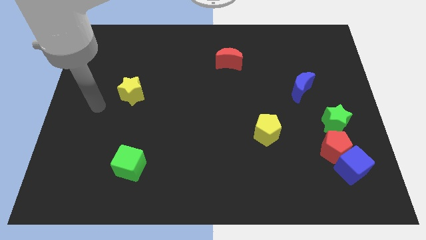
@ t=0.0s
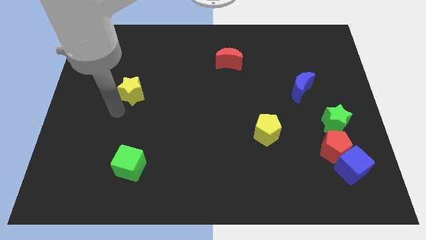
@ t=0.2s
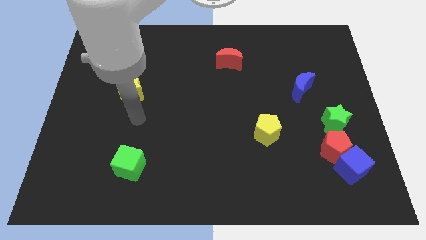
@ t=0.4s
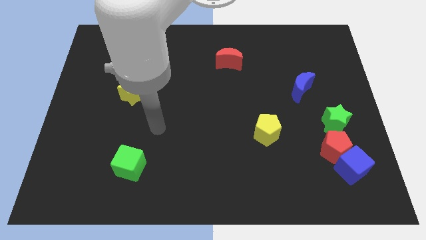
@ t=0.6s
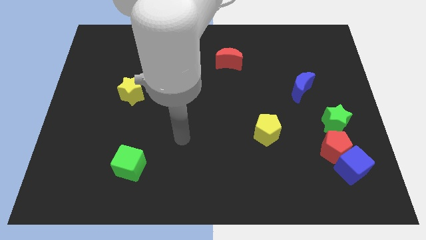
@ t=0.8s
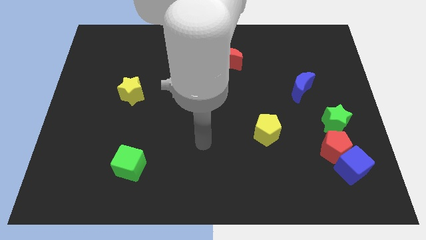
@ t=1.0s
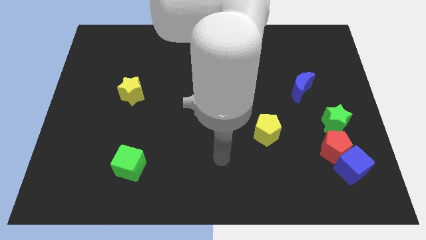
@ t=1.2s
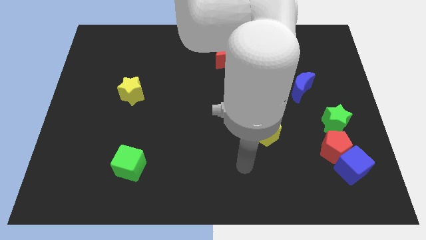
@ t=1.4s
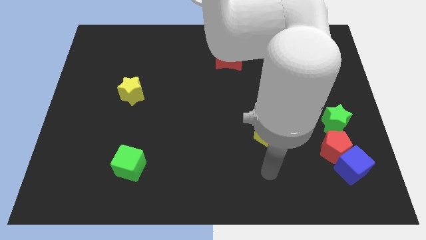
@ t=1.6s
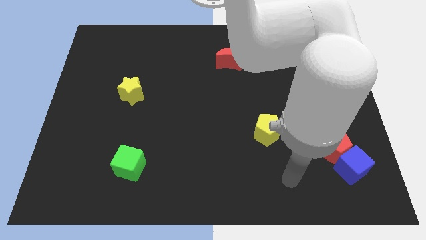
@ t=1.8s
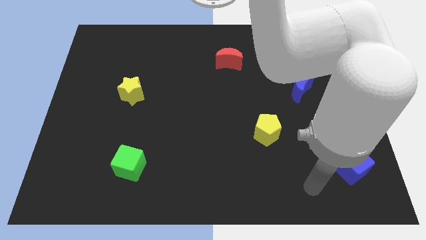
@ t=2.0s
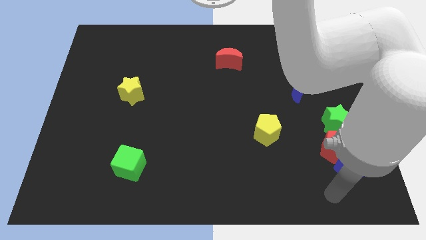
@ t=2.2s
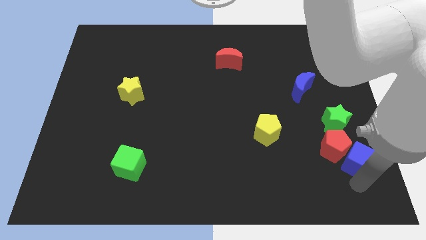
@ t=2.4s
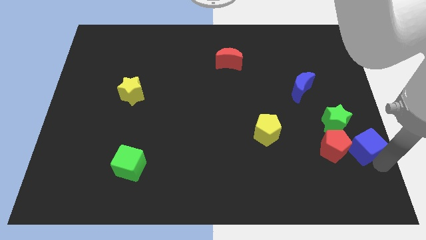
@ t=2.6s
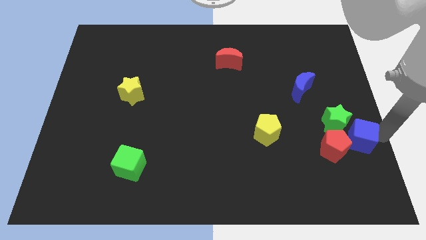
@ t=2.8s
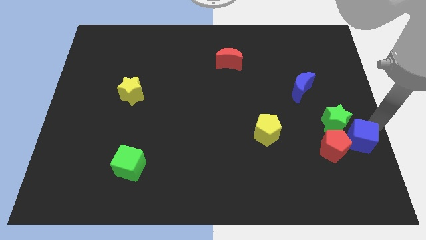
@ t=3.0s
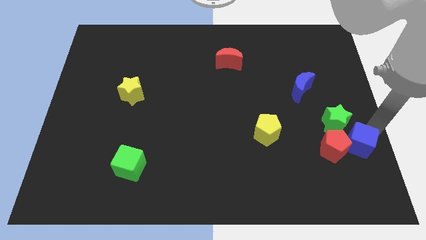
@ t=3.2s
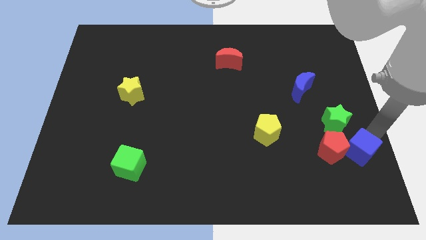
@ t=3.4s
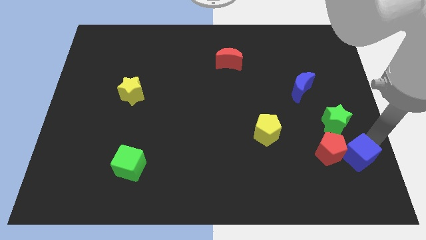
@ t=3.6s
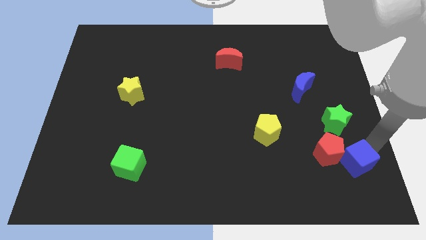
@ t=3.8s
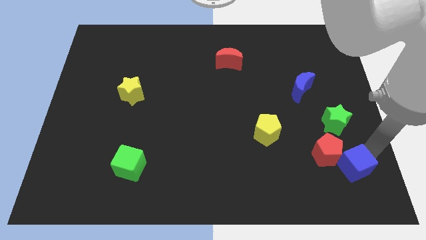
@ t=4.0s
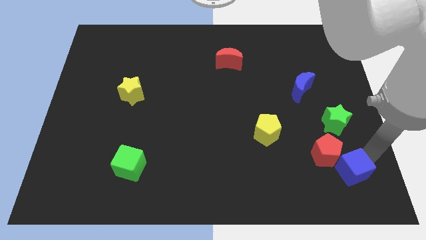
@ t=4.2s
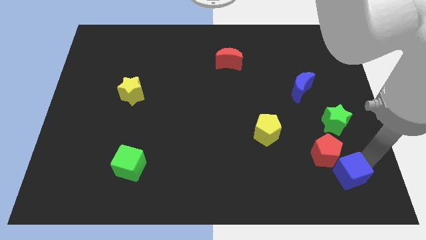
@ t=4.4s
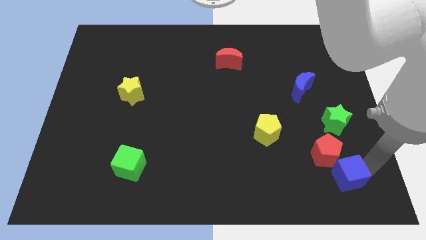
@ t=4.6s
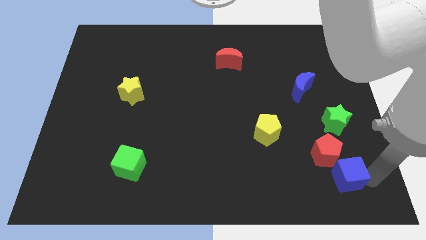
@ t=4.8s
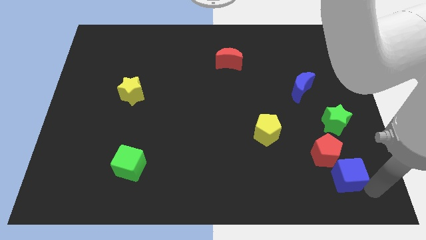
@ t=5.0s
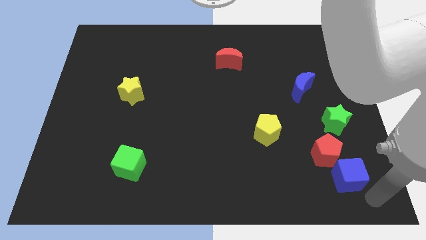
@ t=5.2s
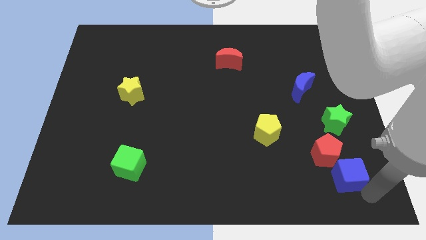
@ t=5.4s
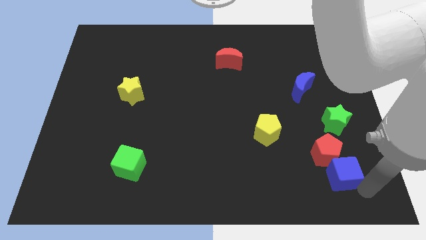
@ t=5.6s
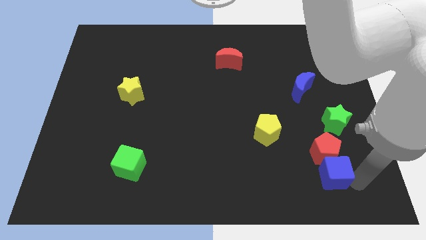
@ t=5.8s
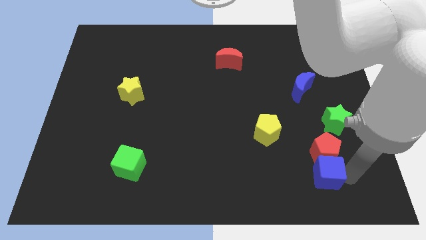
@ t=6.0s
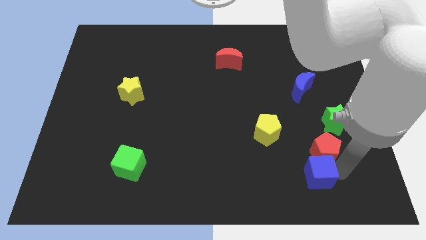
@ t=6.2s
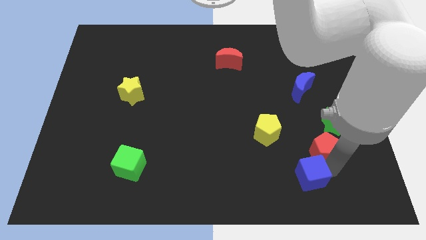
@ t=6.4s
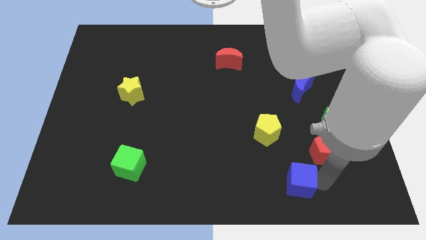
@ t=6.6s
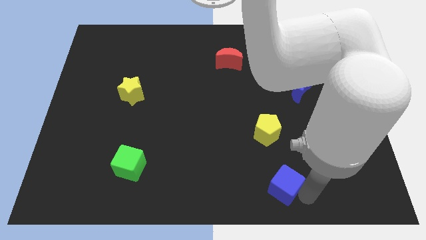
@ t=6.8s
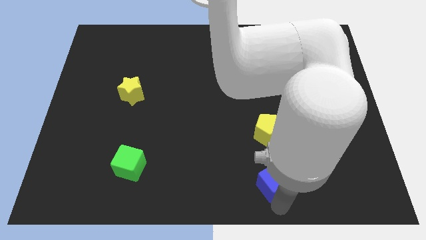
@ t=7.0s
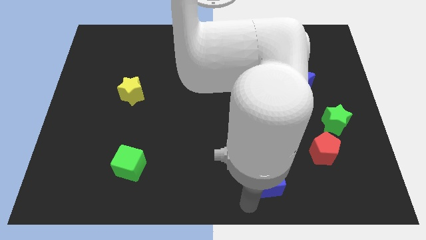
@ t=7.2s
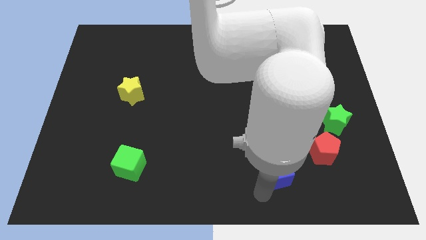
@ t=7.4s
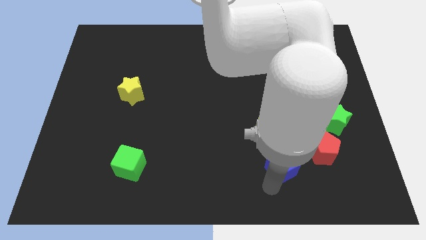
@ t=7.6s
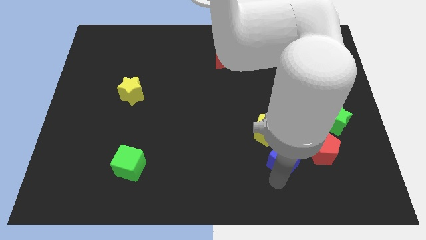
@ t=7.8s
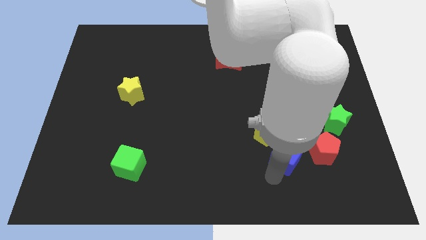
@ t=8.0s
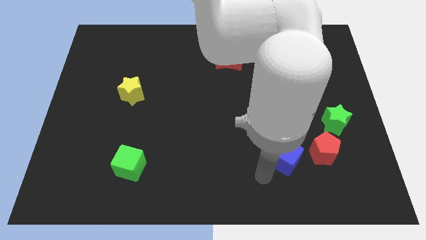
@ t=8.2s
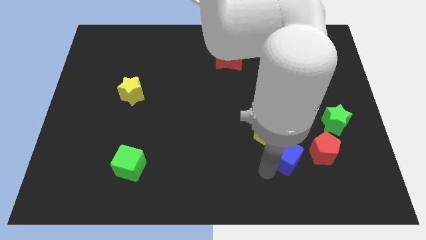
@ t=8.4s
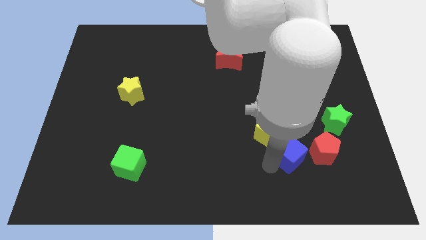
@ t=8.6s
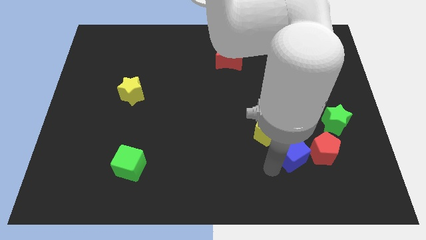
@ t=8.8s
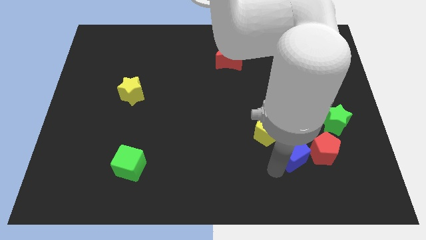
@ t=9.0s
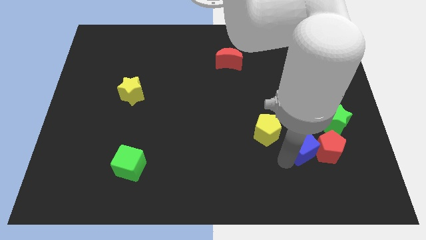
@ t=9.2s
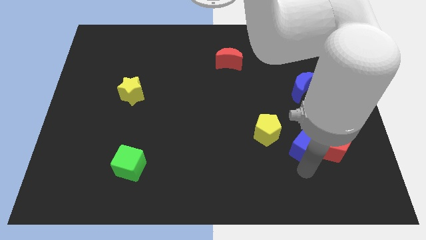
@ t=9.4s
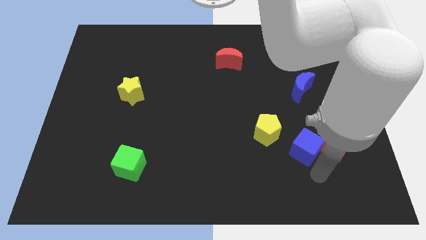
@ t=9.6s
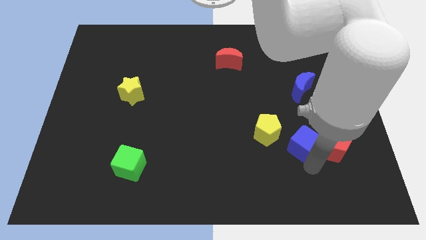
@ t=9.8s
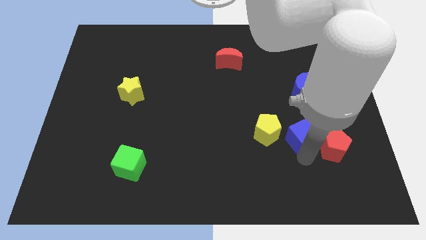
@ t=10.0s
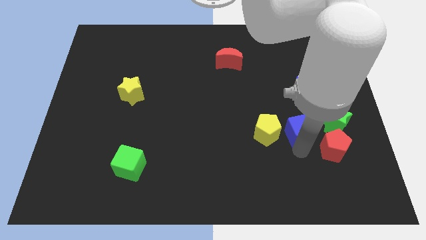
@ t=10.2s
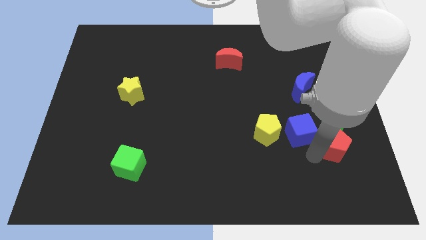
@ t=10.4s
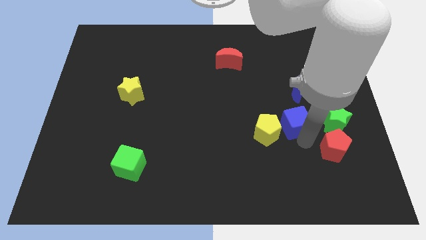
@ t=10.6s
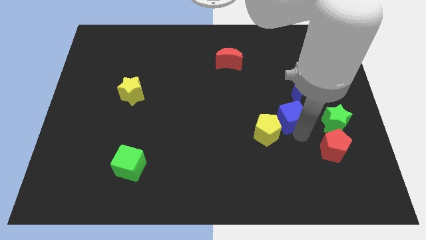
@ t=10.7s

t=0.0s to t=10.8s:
push the blue cube to the bottom left of the blue moon

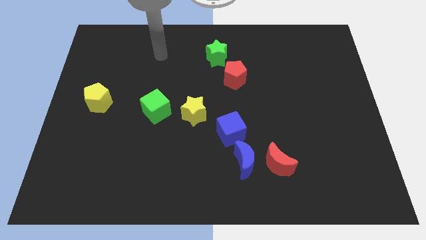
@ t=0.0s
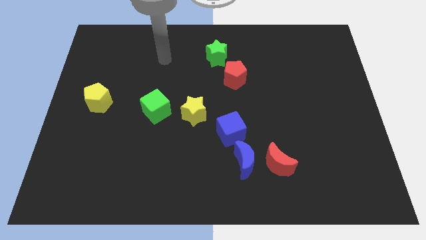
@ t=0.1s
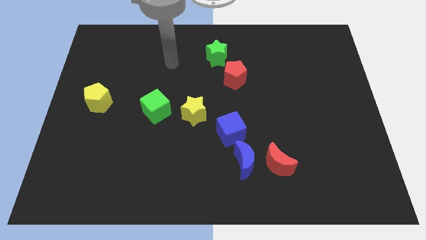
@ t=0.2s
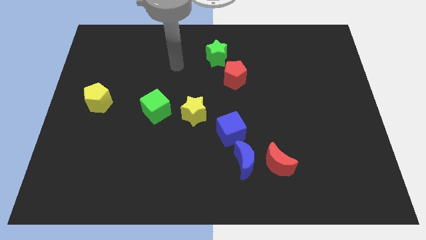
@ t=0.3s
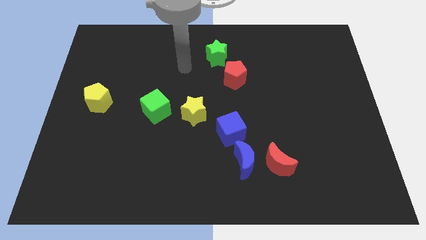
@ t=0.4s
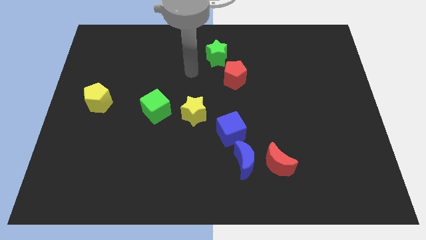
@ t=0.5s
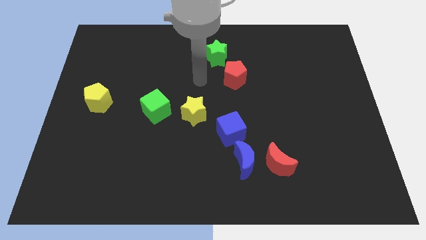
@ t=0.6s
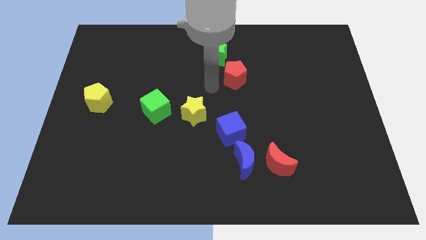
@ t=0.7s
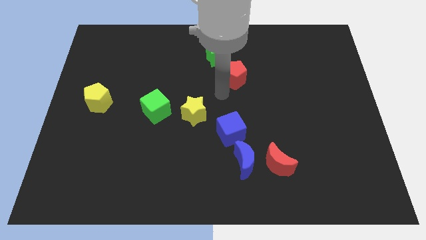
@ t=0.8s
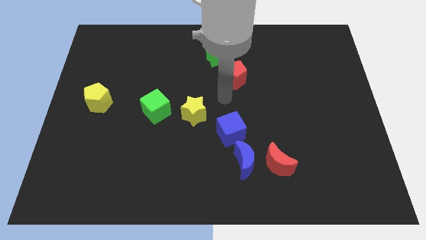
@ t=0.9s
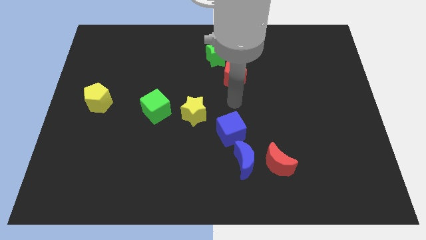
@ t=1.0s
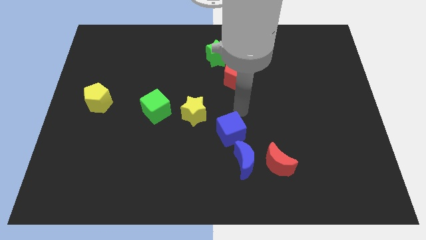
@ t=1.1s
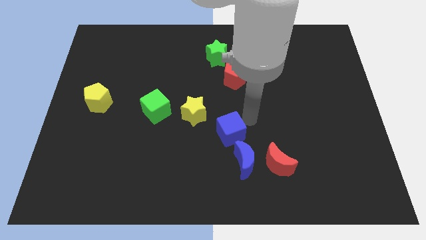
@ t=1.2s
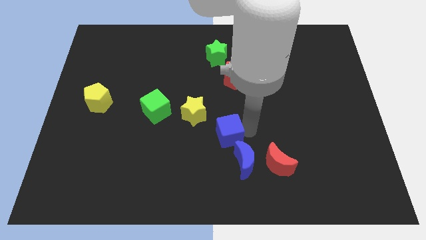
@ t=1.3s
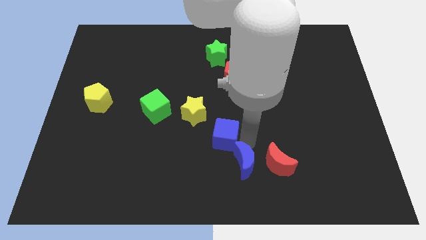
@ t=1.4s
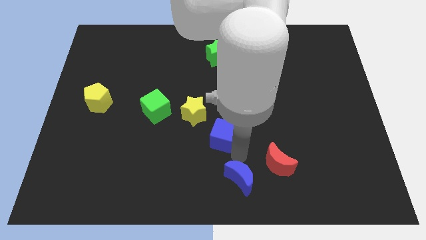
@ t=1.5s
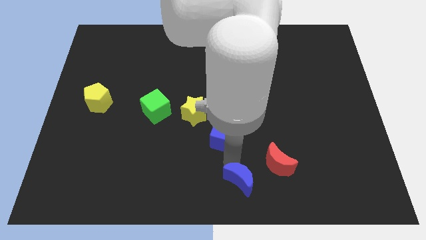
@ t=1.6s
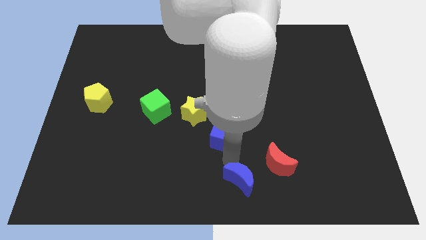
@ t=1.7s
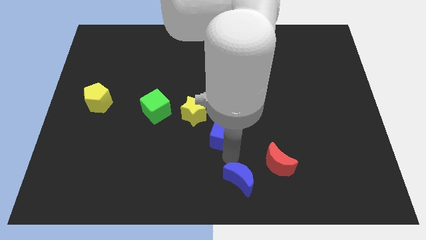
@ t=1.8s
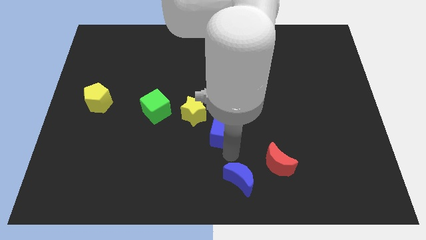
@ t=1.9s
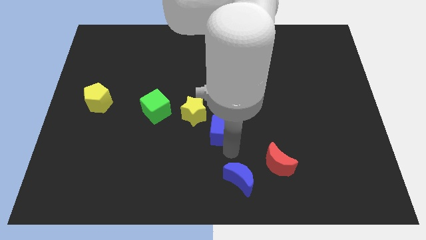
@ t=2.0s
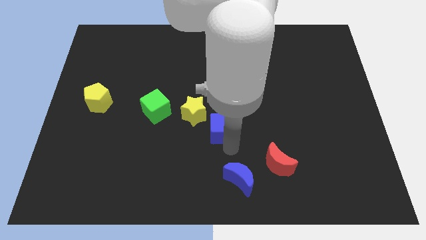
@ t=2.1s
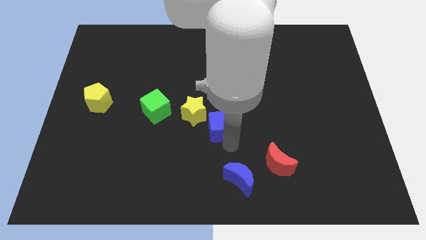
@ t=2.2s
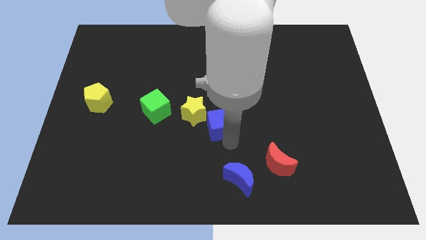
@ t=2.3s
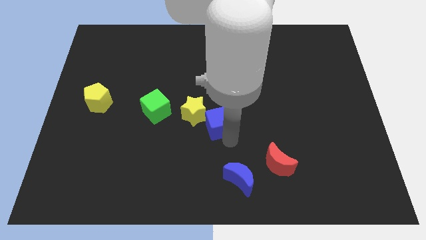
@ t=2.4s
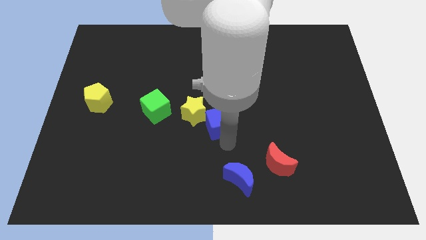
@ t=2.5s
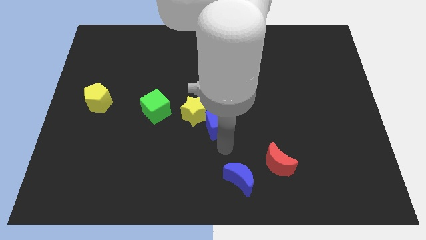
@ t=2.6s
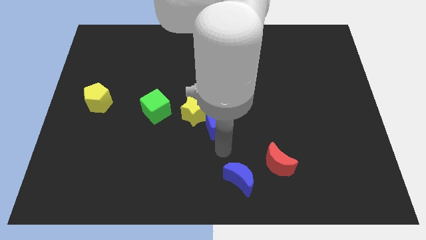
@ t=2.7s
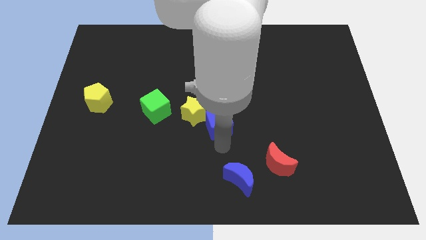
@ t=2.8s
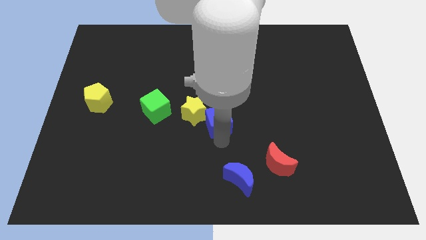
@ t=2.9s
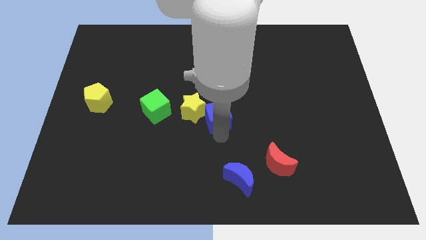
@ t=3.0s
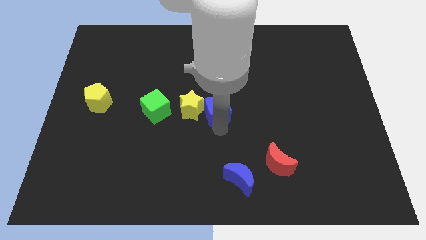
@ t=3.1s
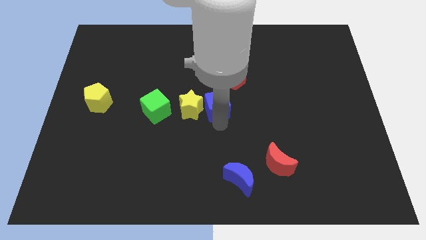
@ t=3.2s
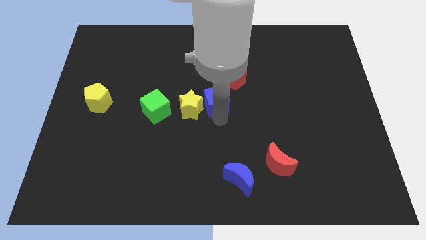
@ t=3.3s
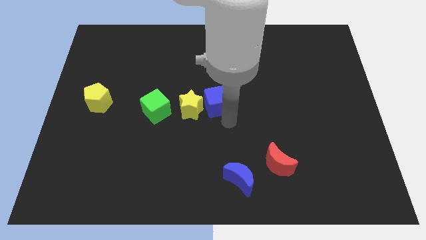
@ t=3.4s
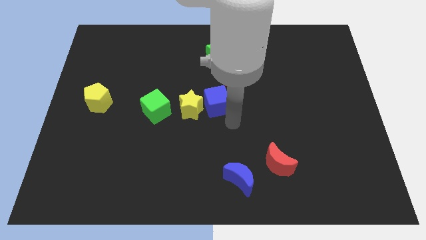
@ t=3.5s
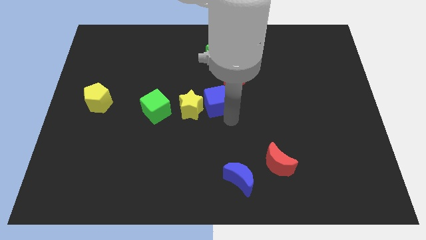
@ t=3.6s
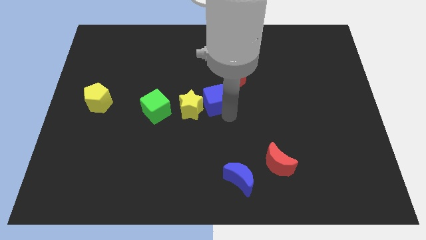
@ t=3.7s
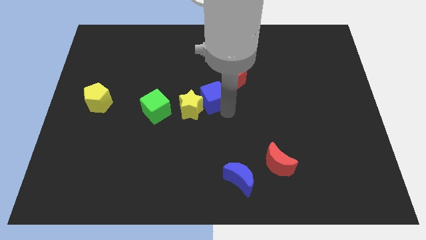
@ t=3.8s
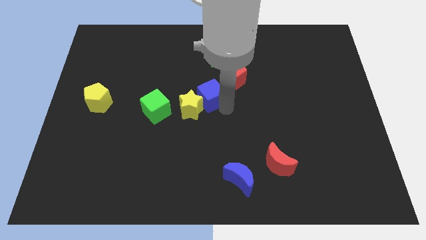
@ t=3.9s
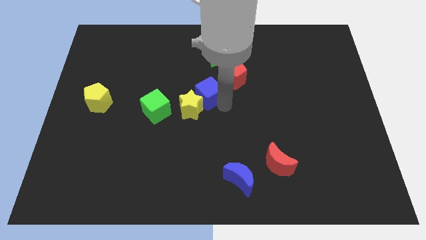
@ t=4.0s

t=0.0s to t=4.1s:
push the blue cube to the top of the yellow star
